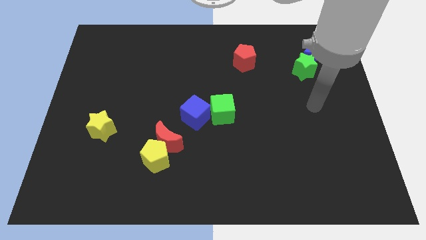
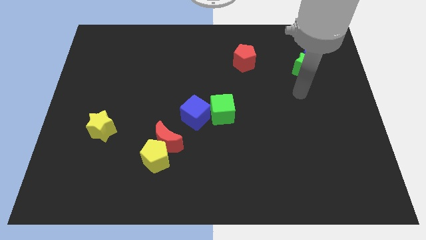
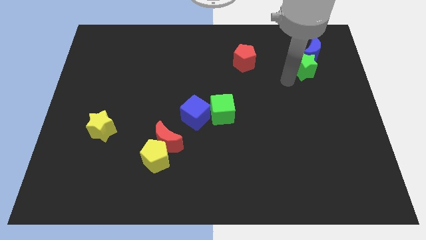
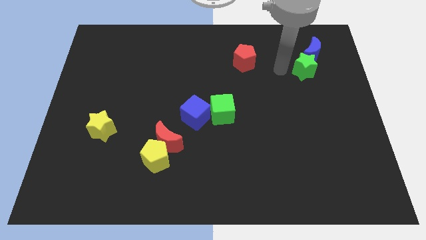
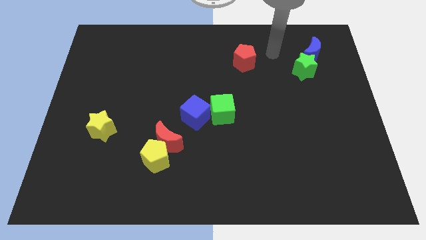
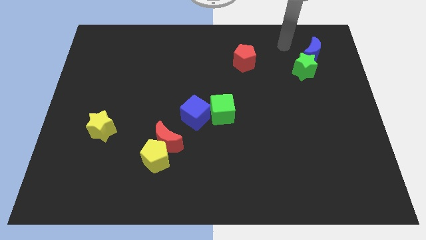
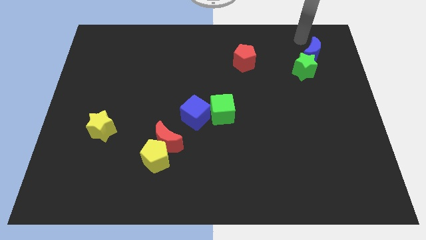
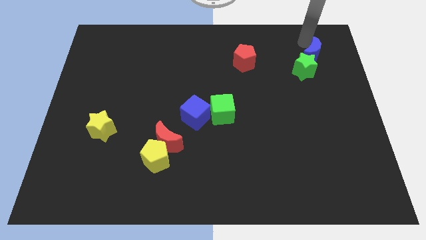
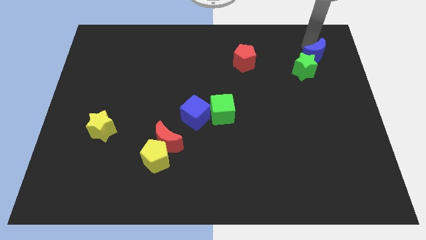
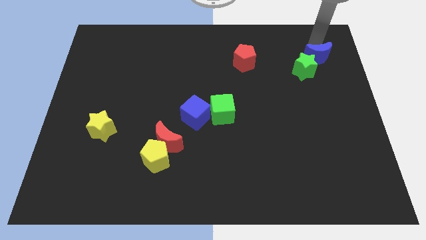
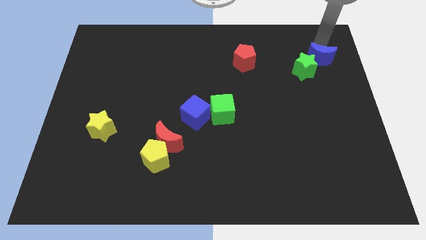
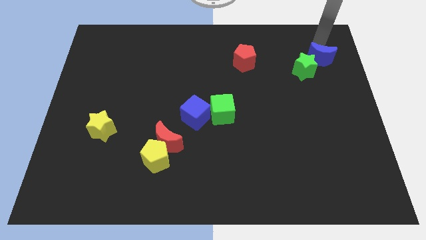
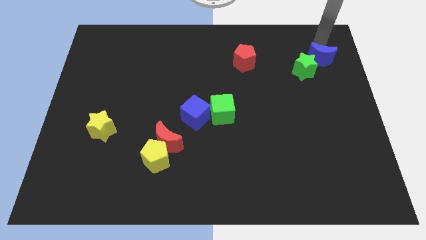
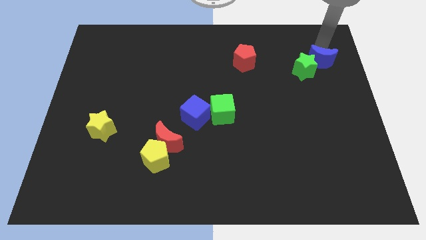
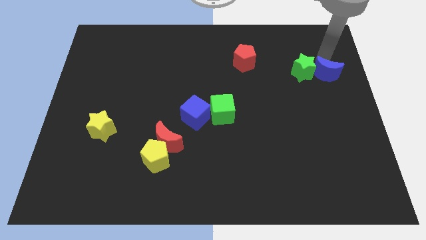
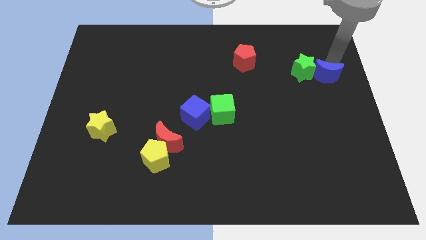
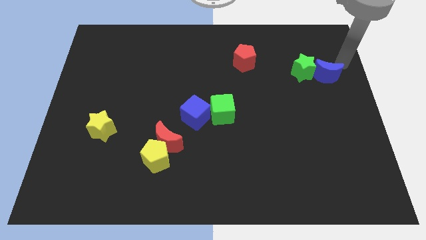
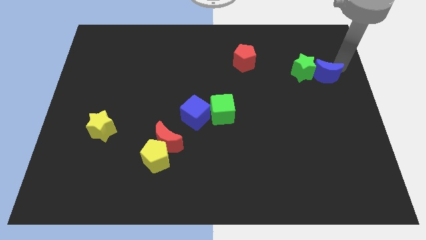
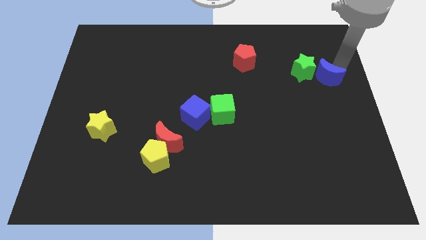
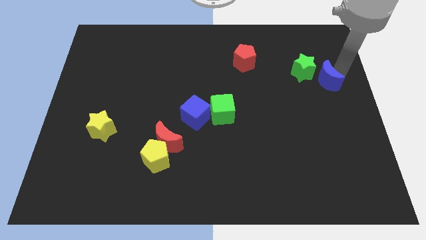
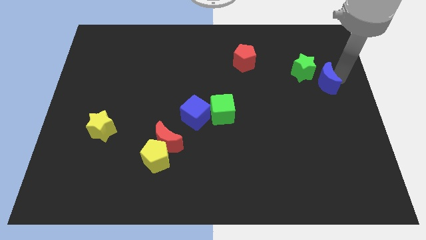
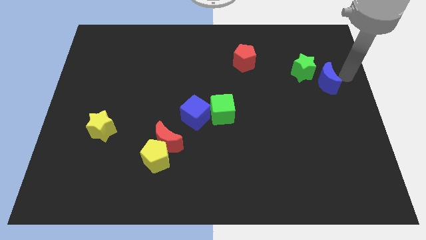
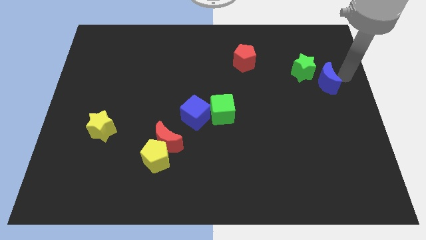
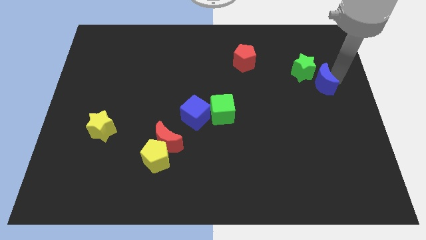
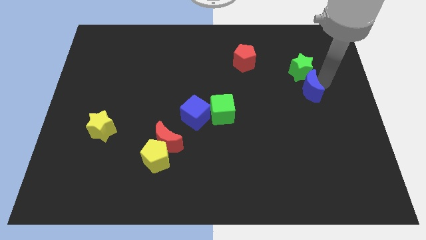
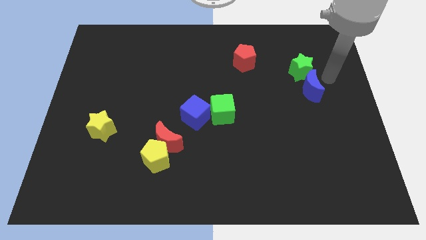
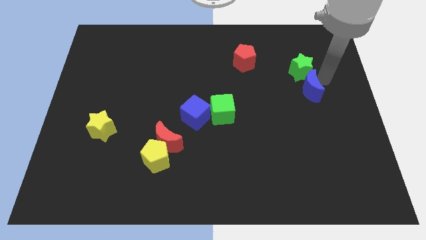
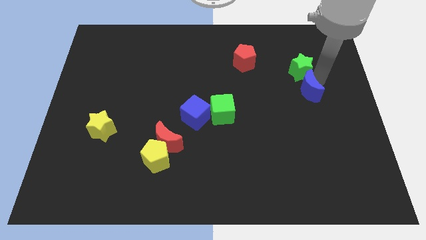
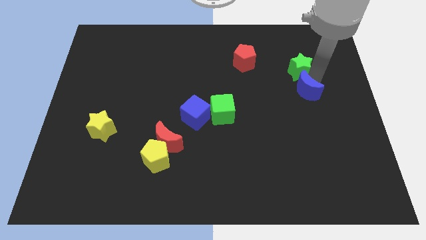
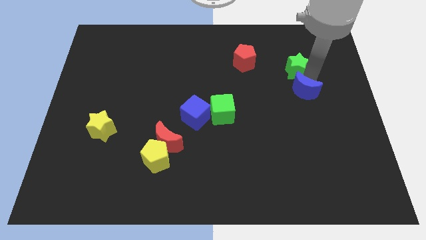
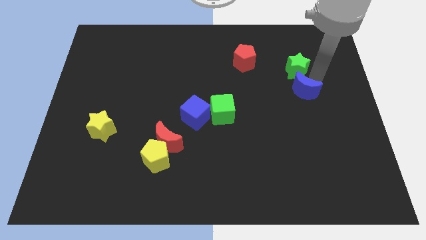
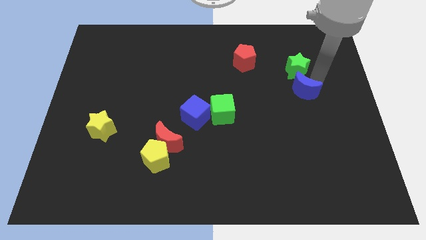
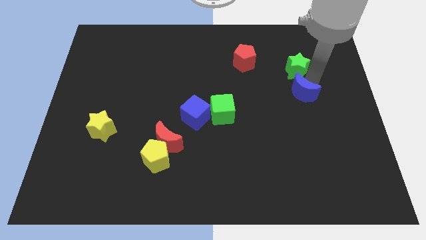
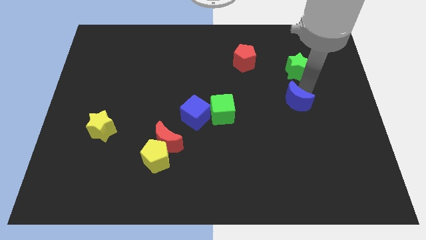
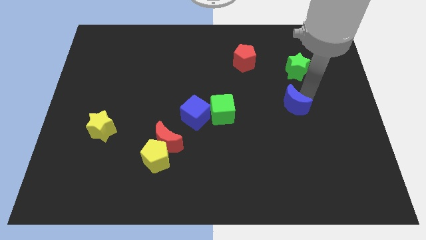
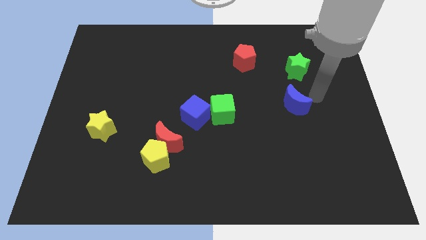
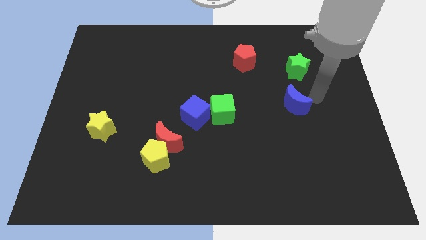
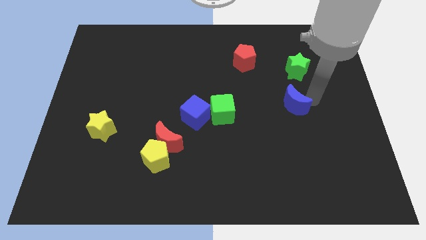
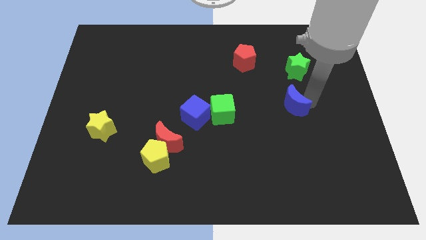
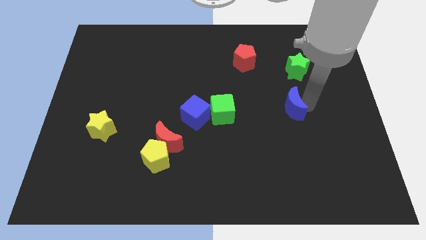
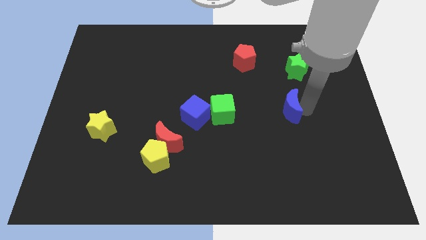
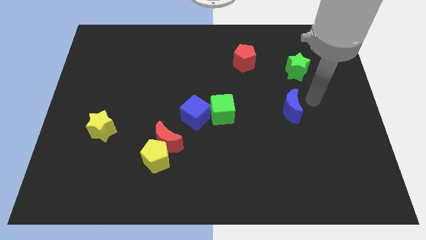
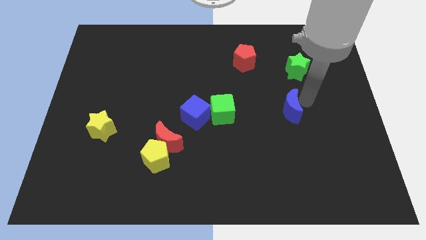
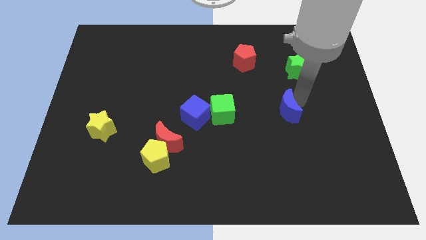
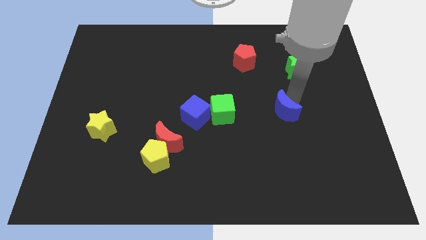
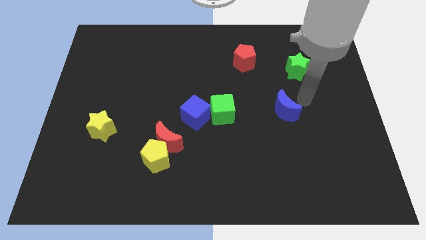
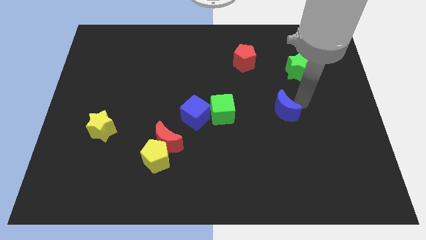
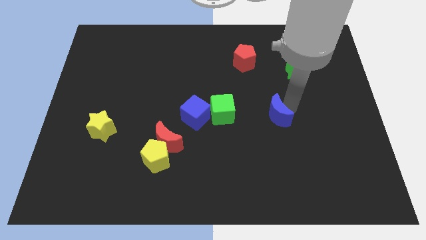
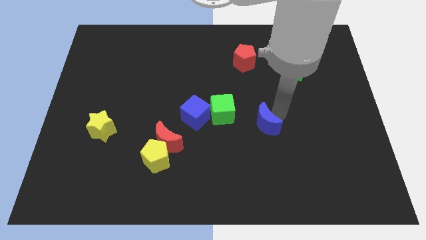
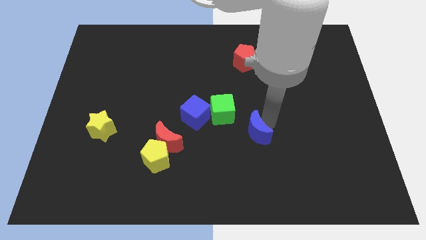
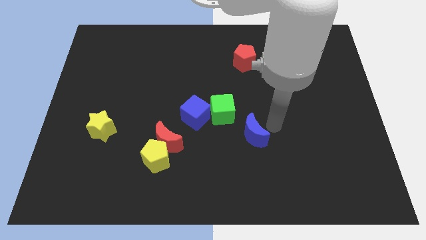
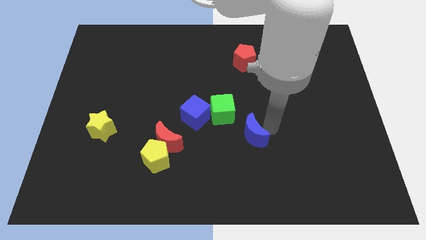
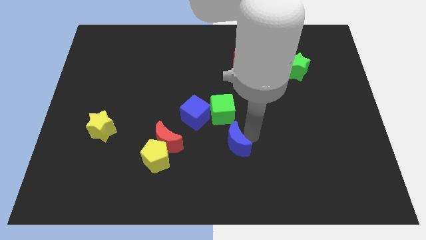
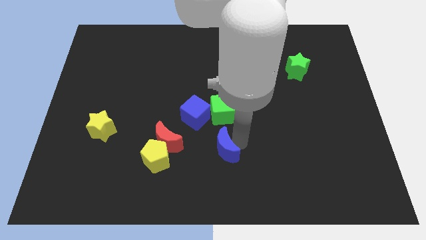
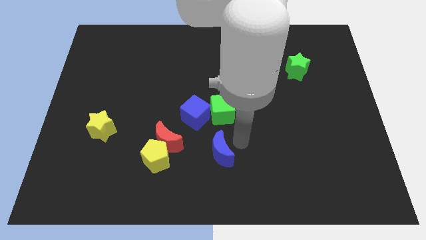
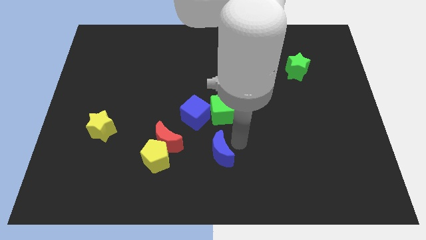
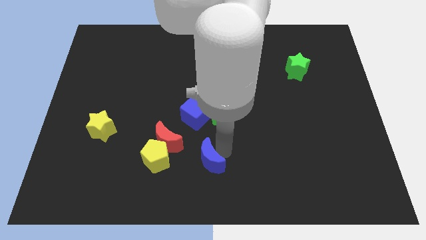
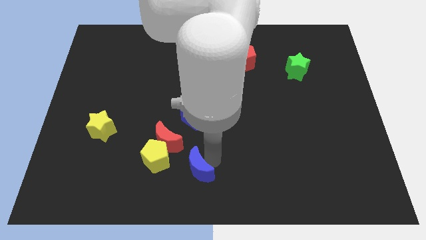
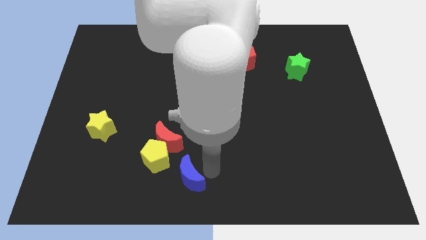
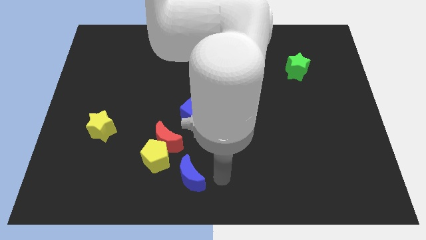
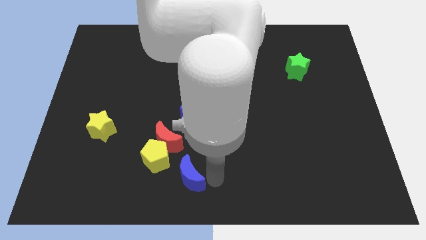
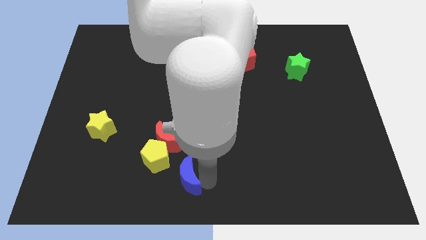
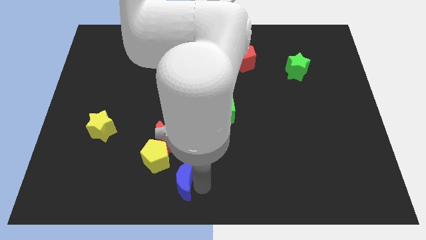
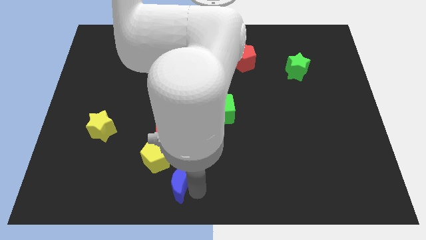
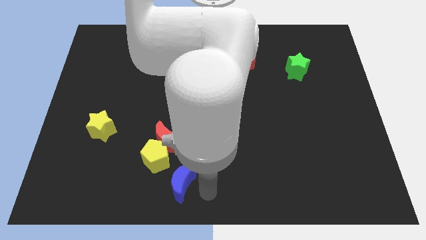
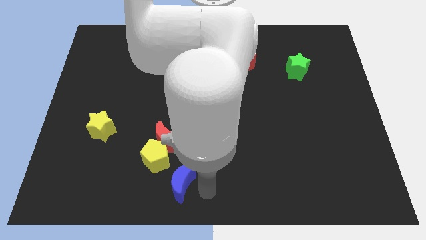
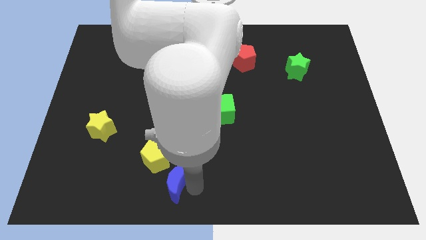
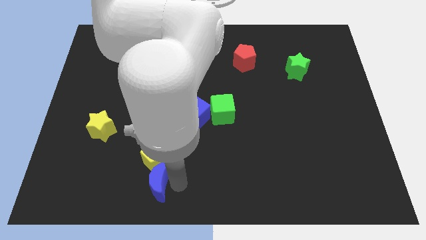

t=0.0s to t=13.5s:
push the blue moon diagonally down and to the left of the yellow pentagon

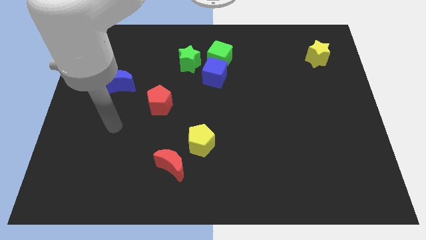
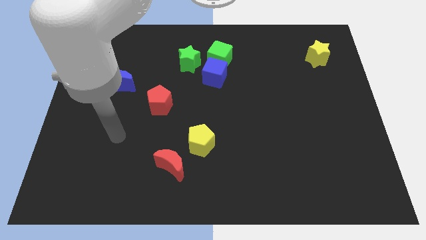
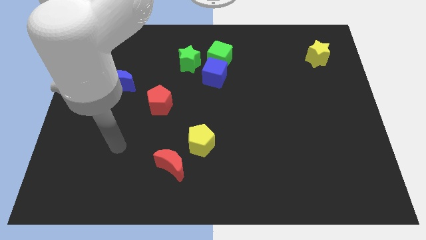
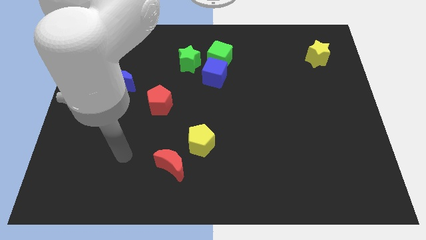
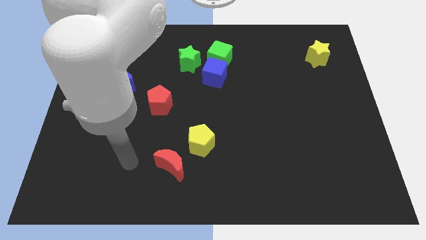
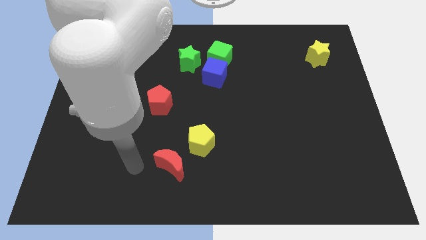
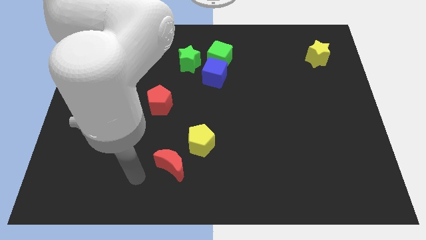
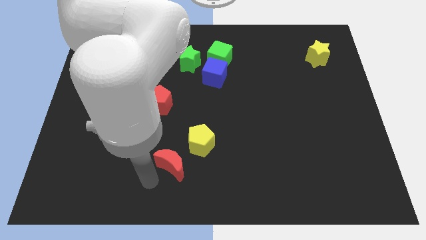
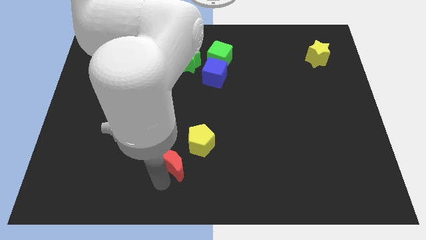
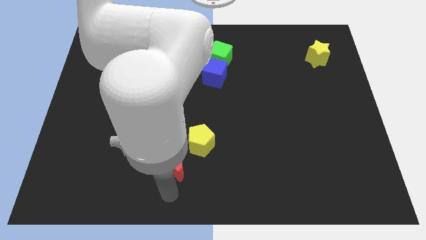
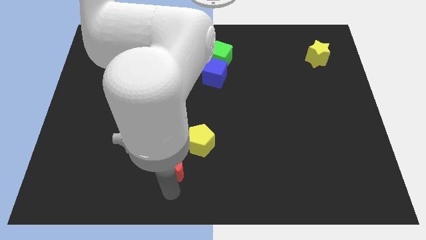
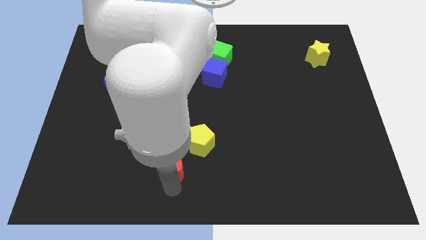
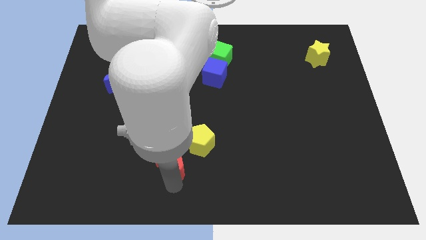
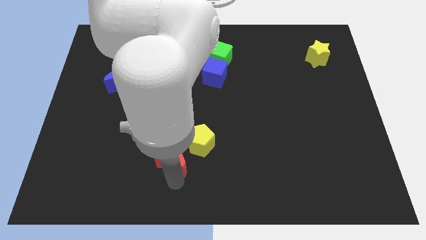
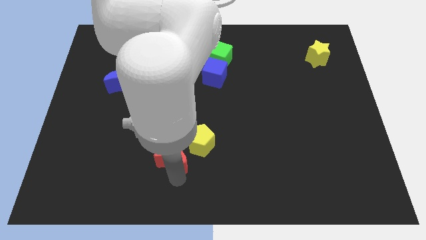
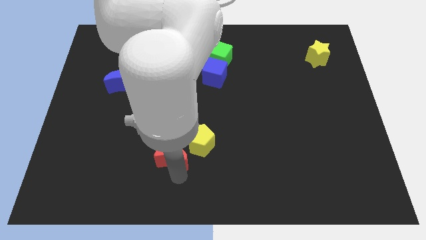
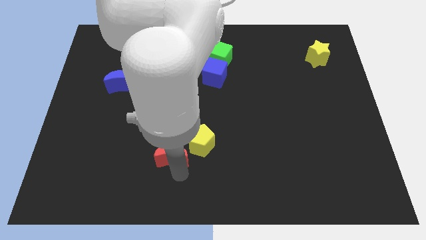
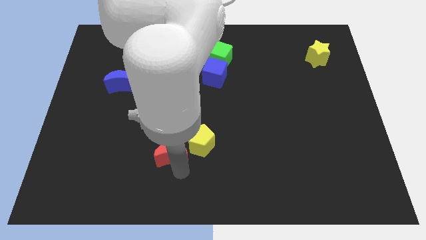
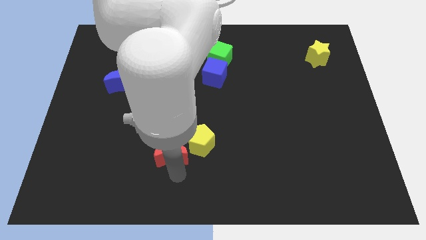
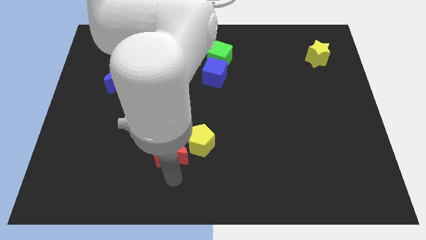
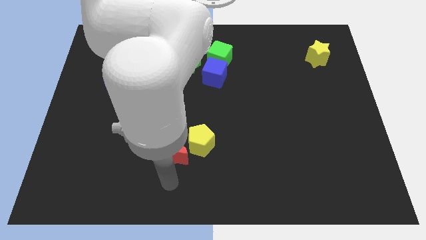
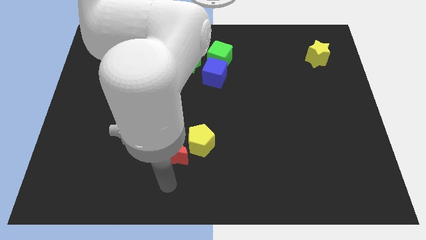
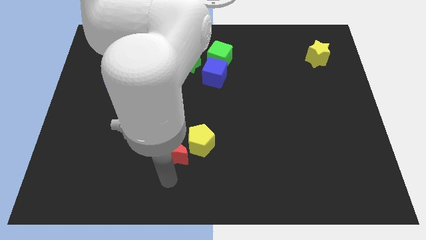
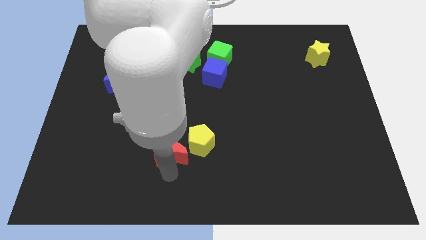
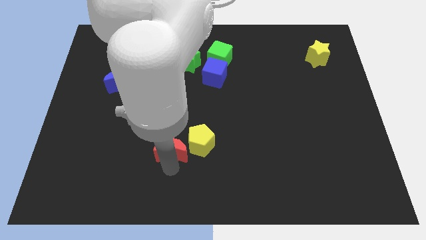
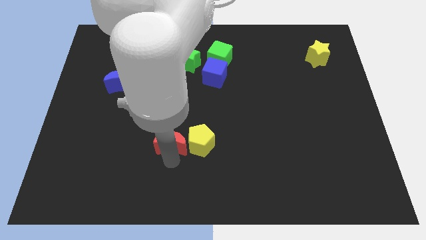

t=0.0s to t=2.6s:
put the red moon to the top left side of the yellow pentagon
